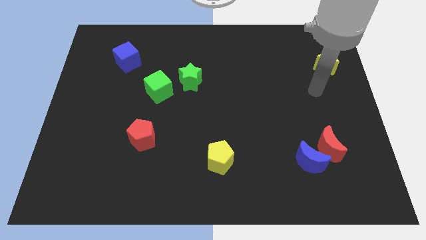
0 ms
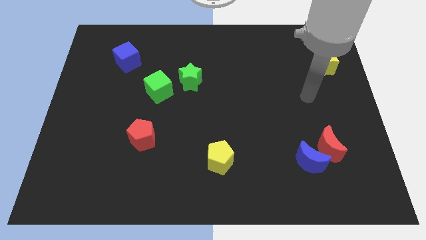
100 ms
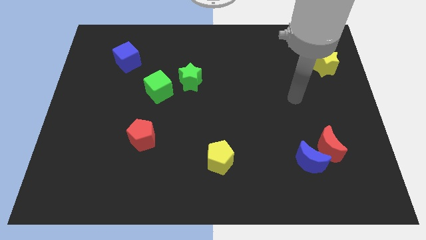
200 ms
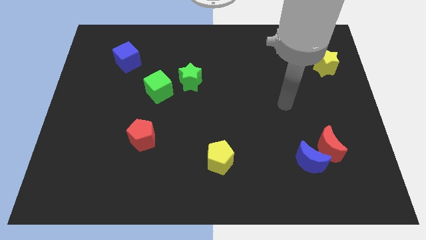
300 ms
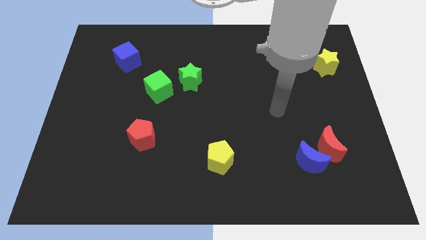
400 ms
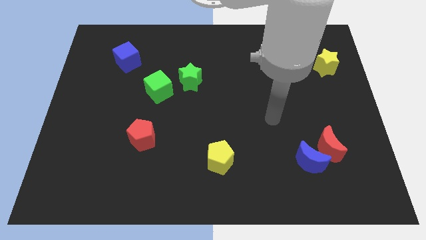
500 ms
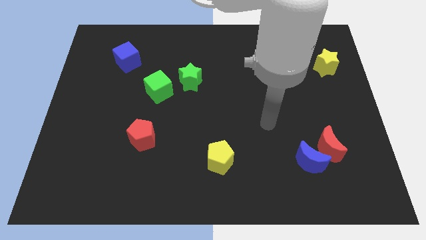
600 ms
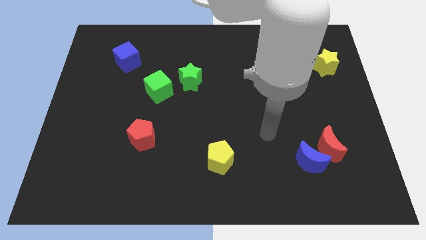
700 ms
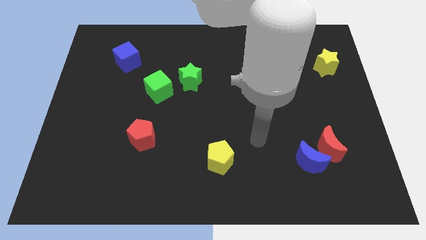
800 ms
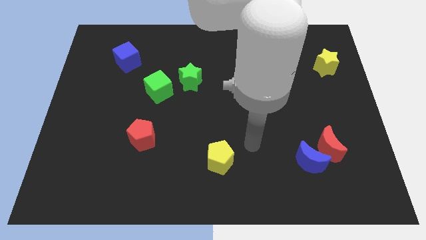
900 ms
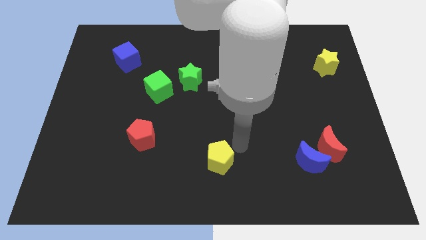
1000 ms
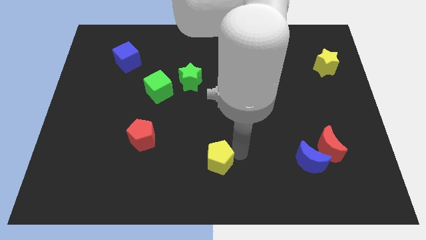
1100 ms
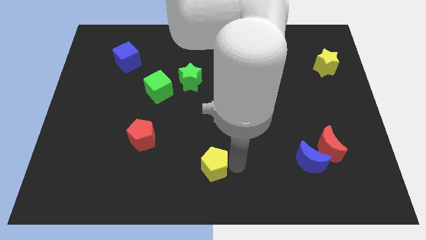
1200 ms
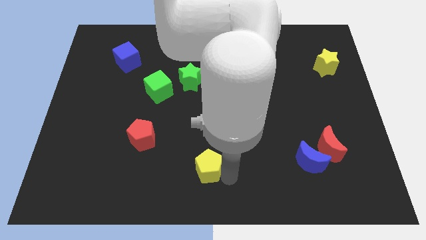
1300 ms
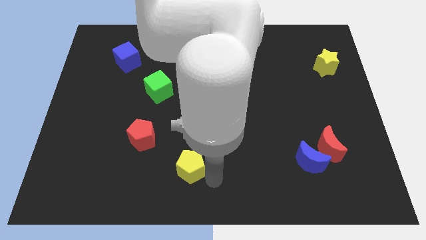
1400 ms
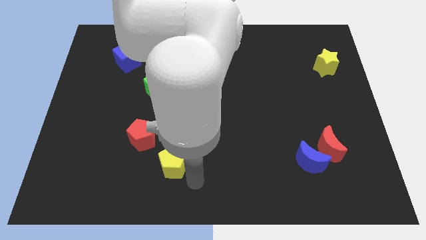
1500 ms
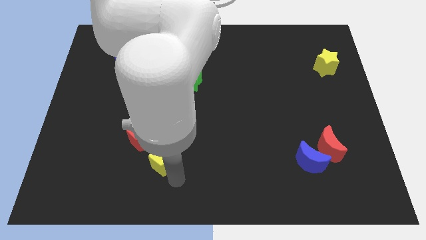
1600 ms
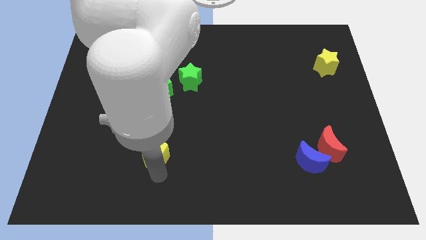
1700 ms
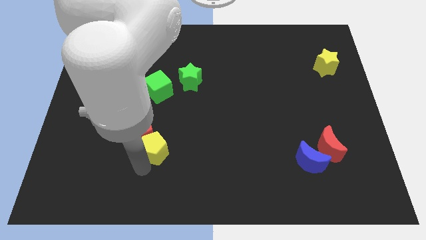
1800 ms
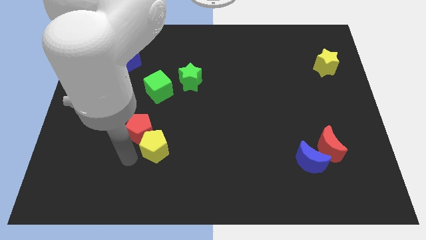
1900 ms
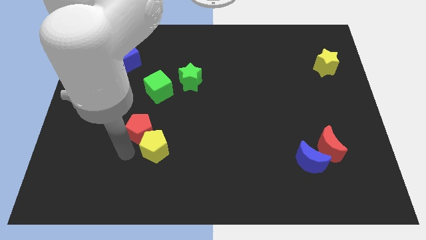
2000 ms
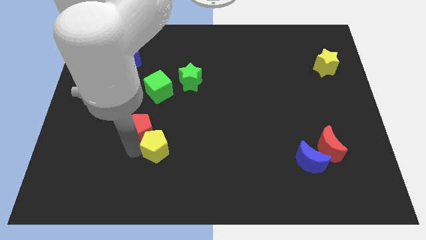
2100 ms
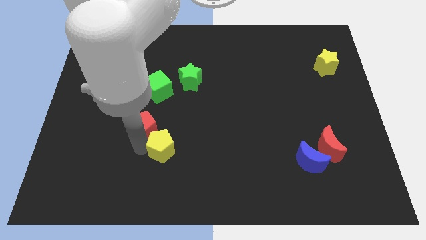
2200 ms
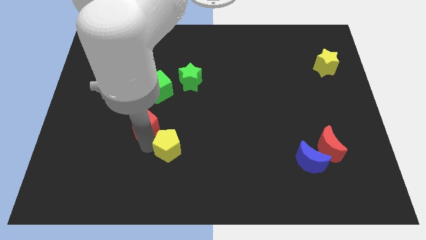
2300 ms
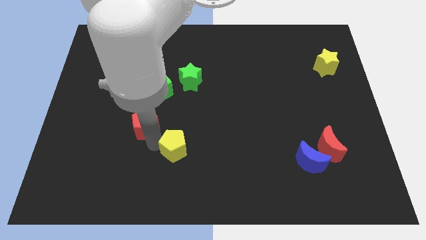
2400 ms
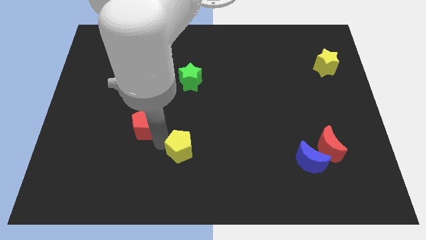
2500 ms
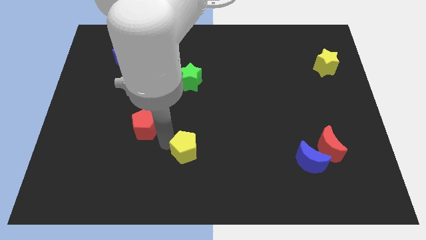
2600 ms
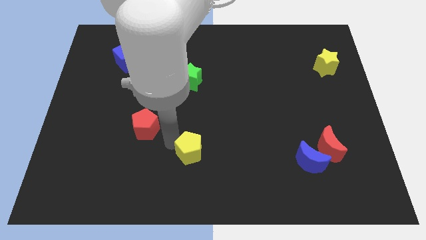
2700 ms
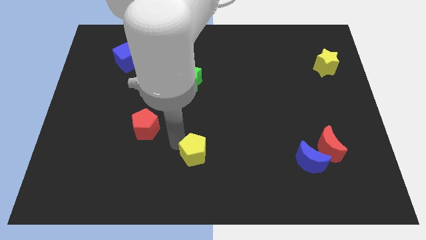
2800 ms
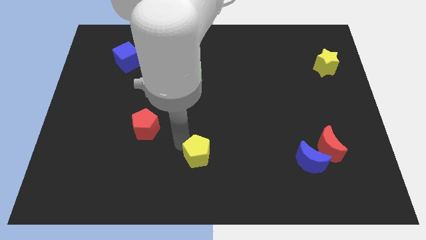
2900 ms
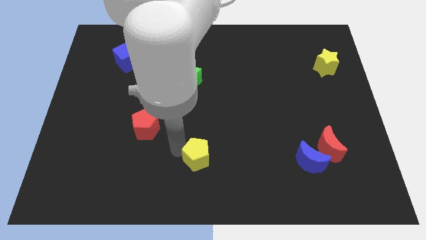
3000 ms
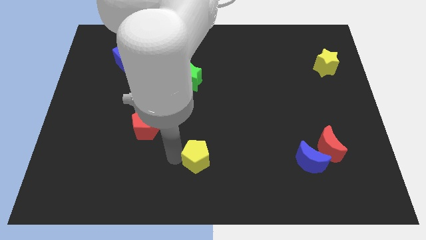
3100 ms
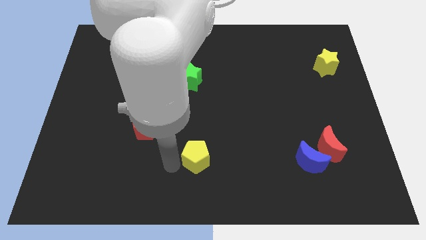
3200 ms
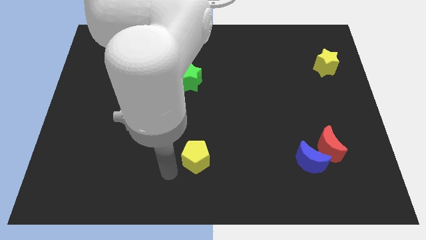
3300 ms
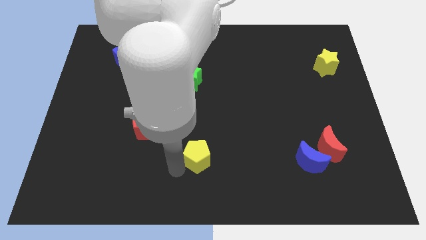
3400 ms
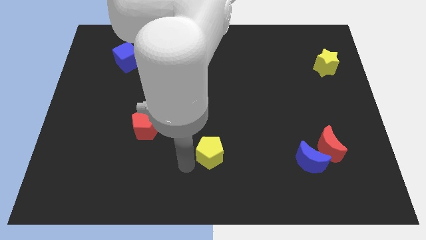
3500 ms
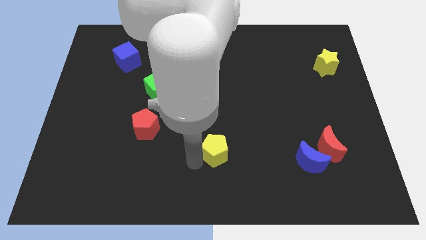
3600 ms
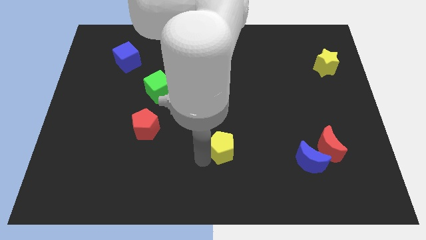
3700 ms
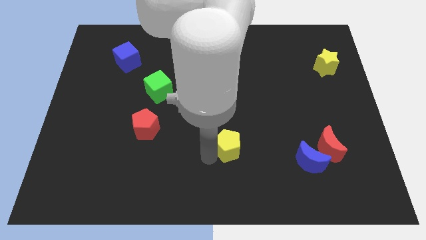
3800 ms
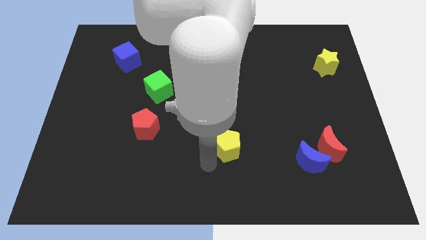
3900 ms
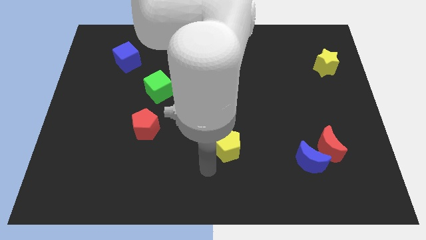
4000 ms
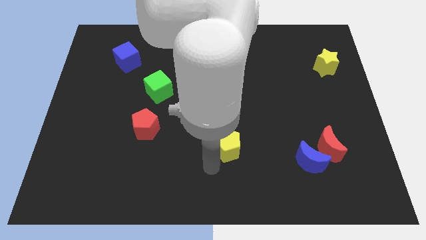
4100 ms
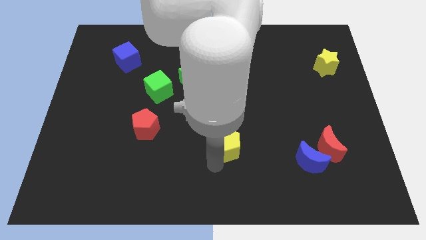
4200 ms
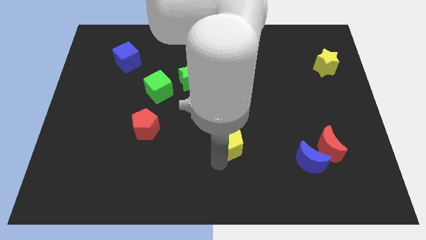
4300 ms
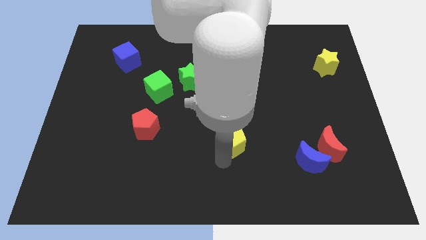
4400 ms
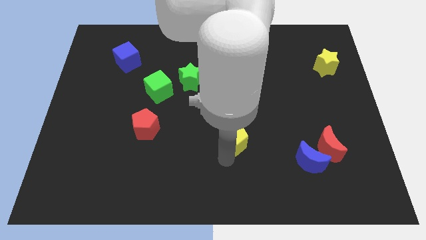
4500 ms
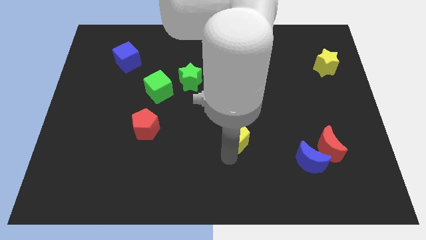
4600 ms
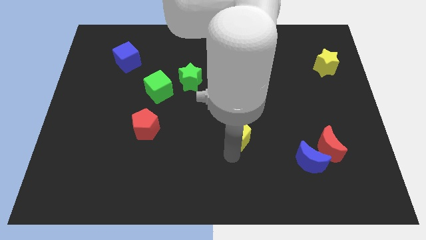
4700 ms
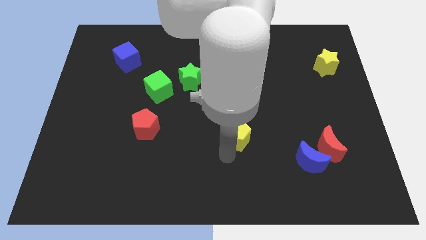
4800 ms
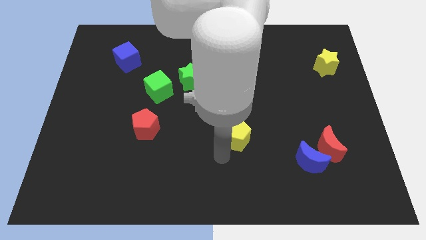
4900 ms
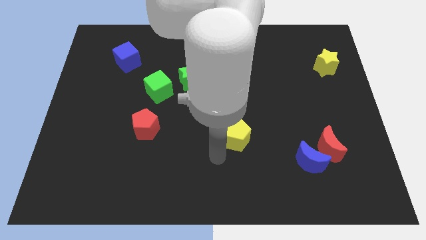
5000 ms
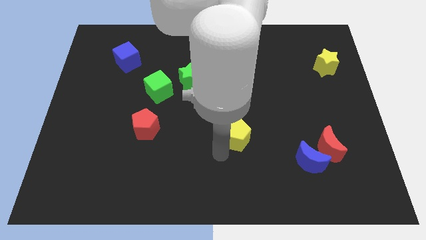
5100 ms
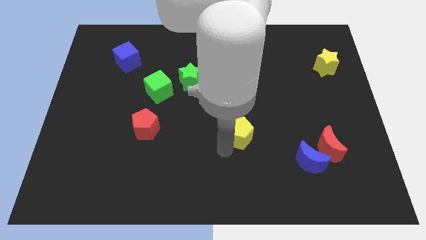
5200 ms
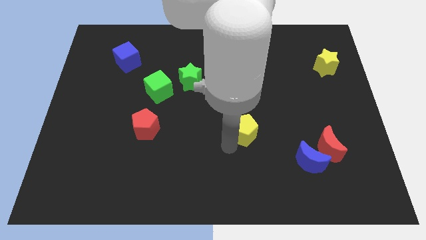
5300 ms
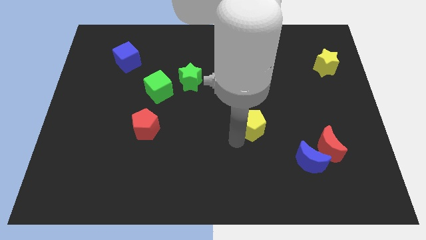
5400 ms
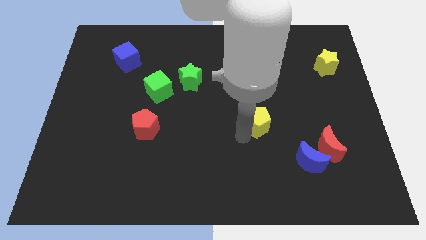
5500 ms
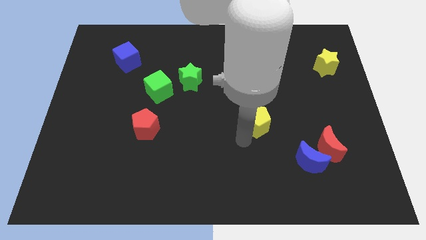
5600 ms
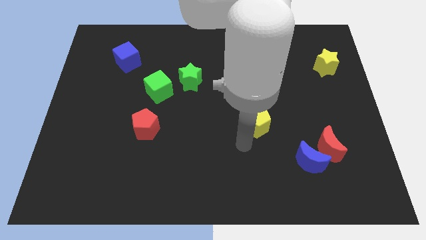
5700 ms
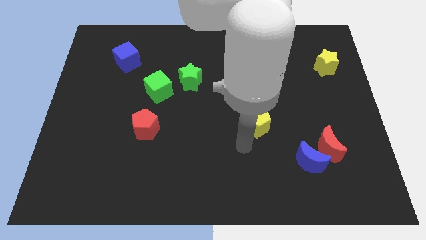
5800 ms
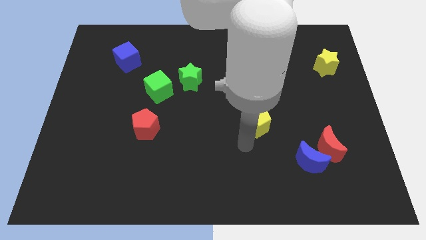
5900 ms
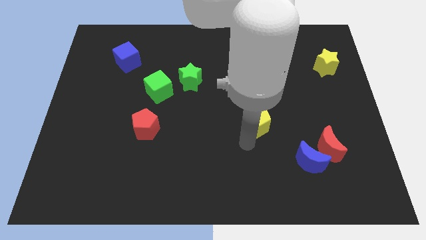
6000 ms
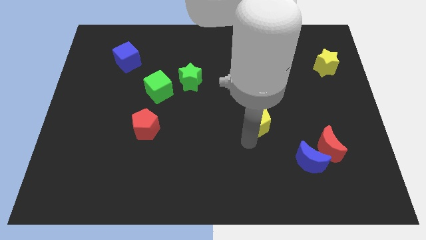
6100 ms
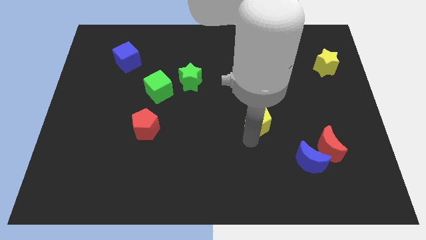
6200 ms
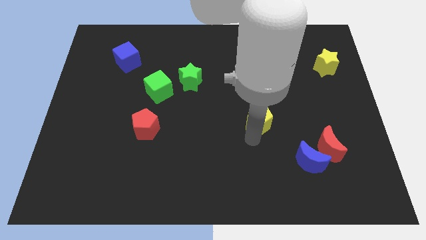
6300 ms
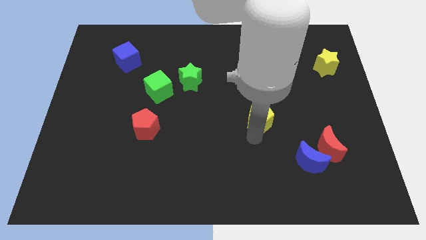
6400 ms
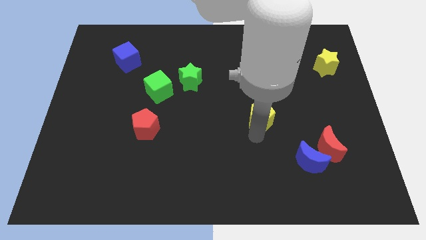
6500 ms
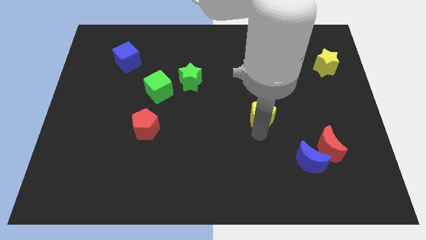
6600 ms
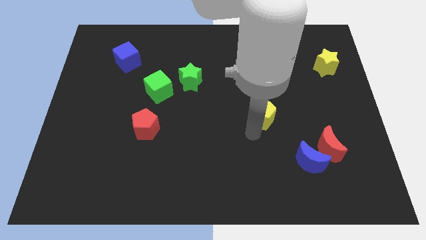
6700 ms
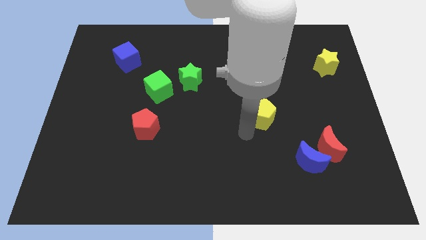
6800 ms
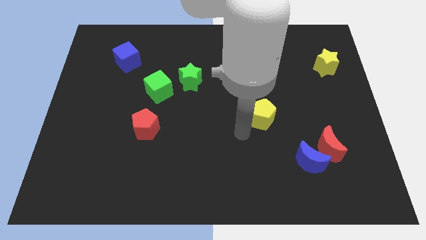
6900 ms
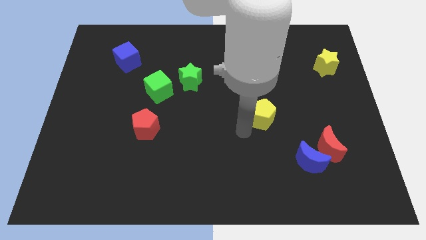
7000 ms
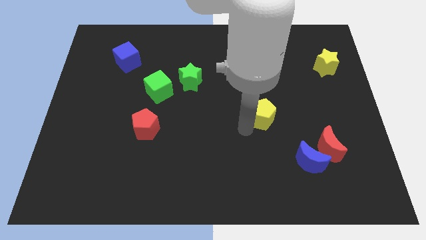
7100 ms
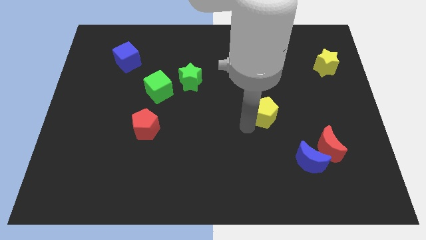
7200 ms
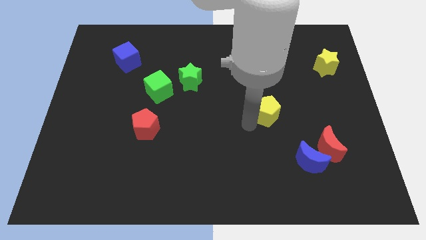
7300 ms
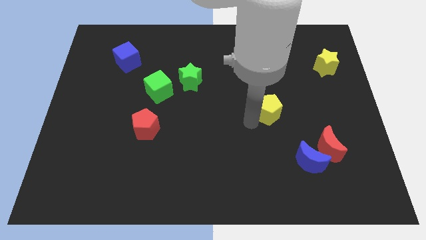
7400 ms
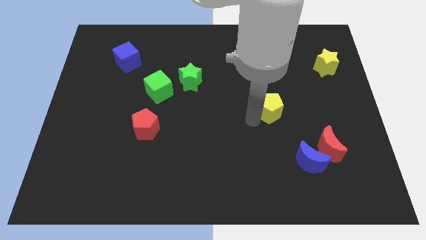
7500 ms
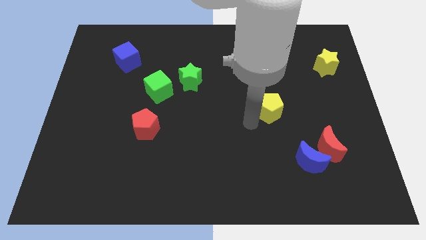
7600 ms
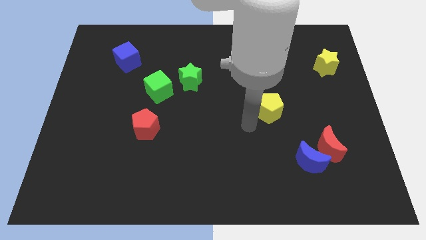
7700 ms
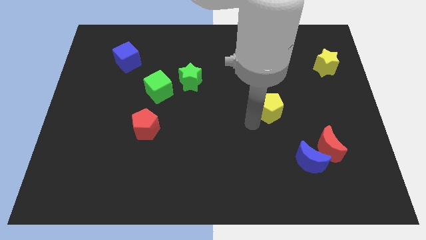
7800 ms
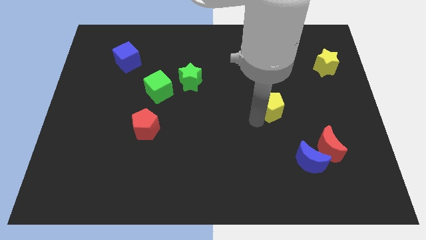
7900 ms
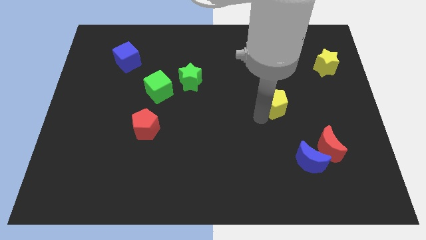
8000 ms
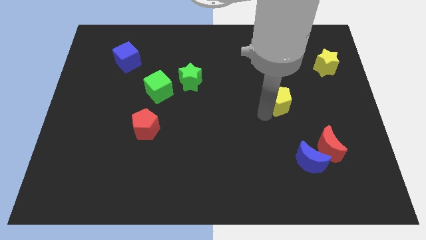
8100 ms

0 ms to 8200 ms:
push the yellow pentagon diagonally upwards and right

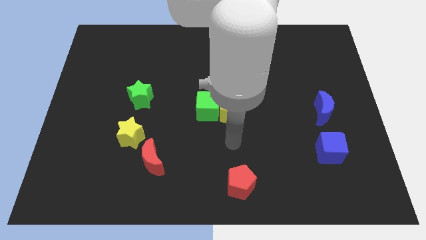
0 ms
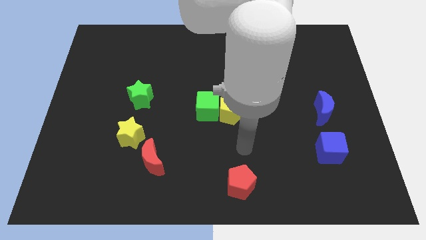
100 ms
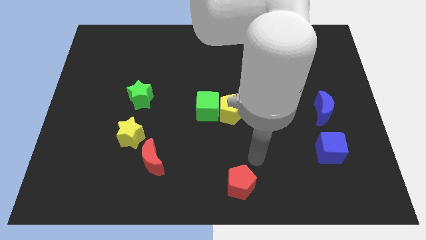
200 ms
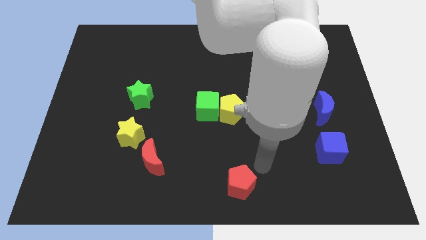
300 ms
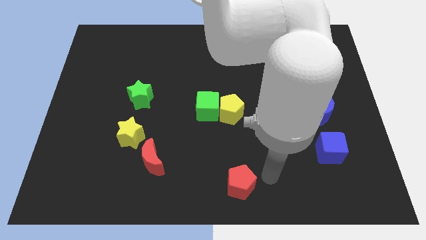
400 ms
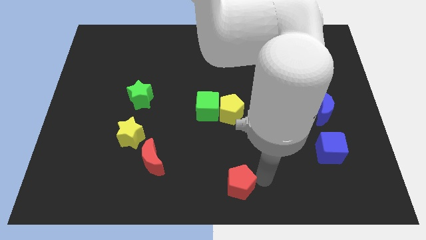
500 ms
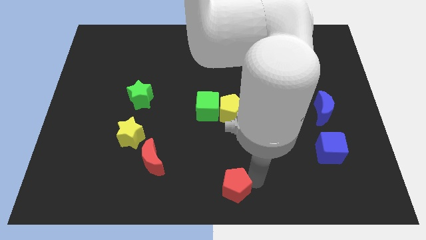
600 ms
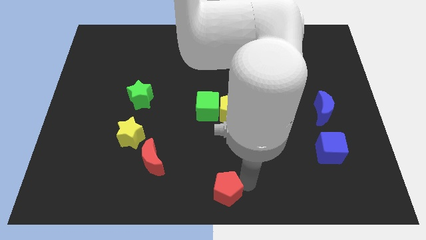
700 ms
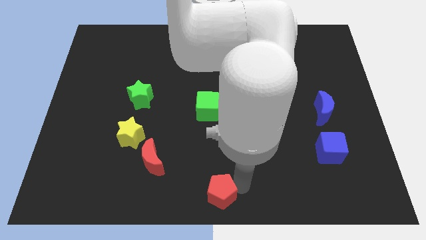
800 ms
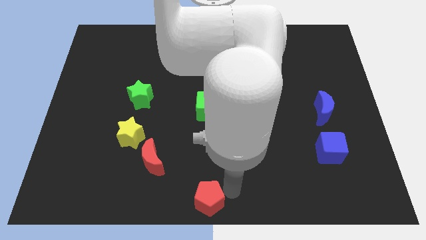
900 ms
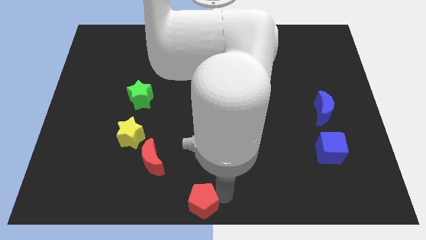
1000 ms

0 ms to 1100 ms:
move the red pentagon to the left a little bit
